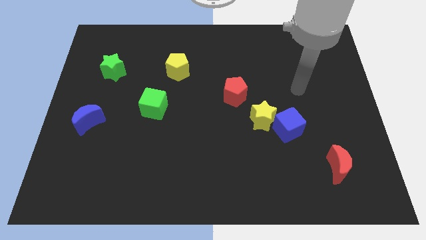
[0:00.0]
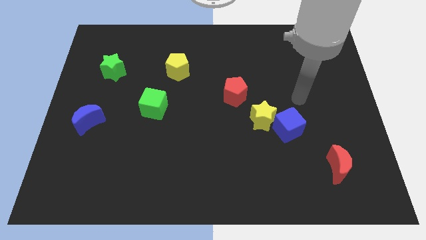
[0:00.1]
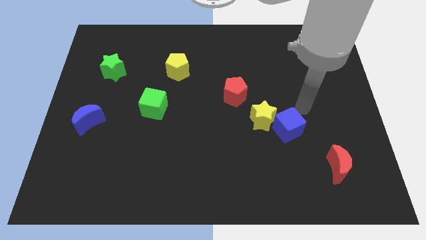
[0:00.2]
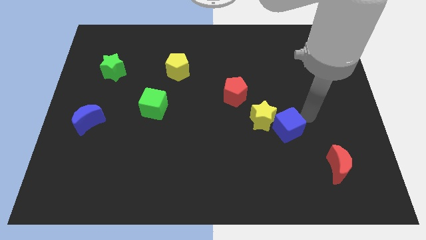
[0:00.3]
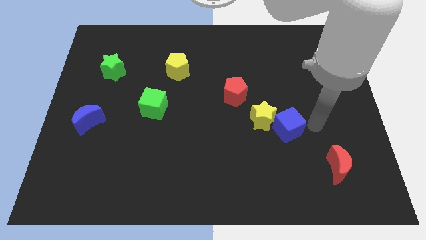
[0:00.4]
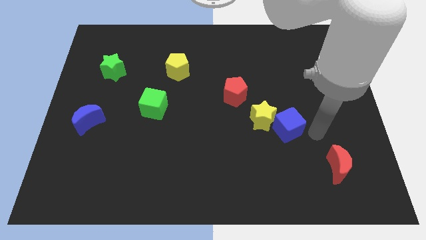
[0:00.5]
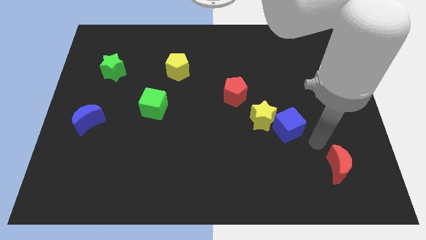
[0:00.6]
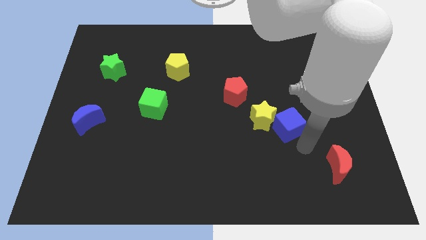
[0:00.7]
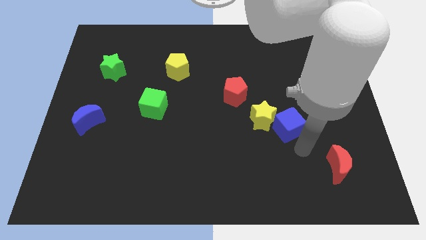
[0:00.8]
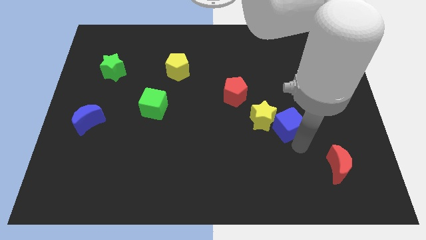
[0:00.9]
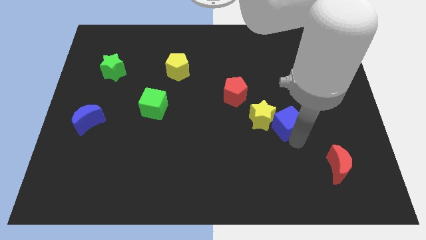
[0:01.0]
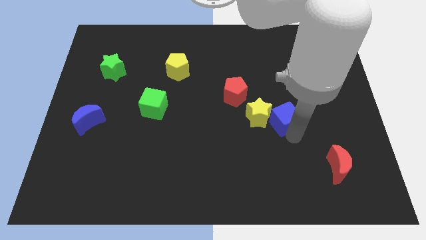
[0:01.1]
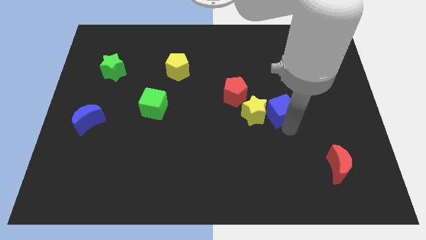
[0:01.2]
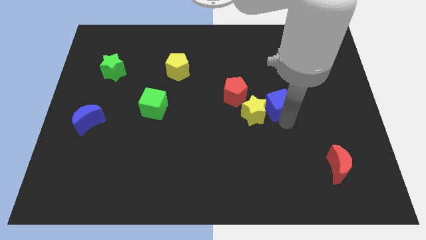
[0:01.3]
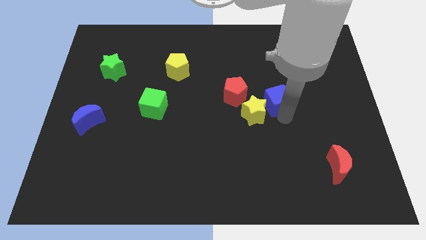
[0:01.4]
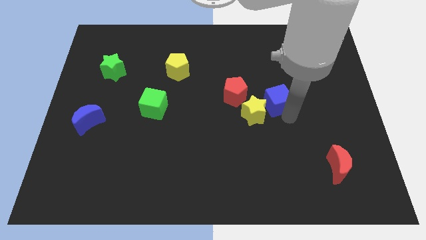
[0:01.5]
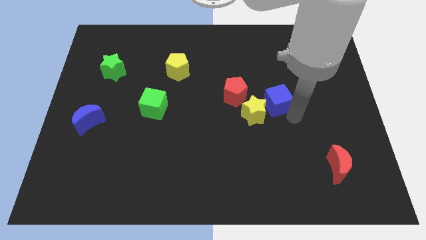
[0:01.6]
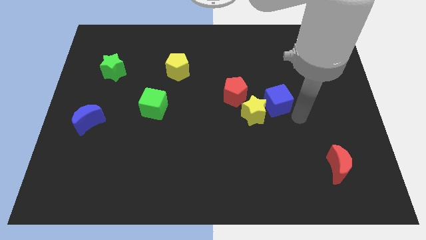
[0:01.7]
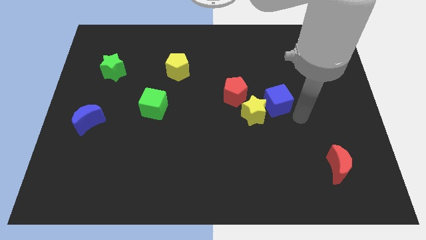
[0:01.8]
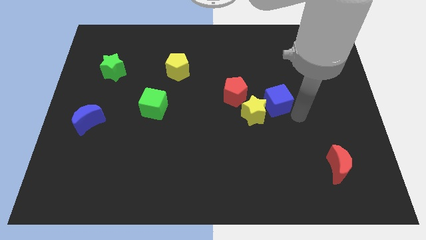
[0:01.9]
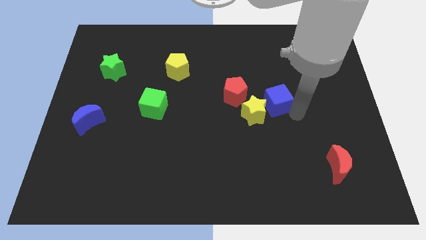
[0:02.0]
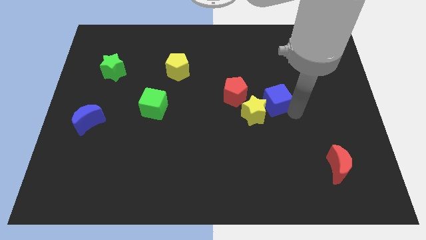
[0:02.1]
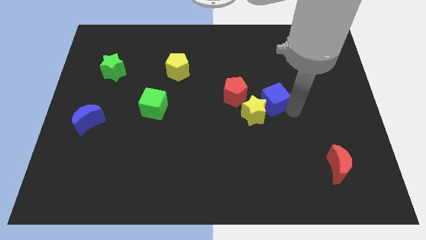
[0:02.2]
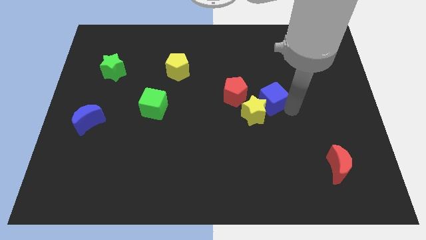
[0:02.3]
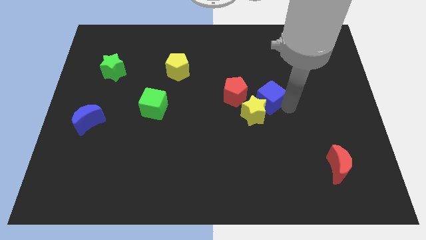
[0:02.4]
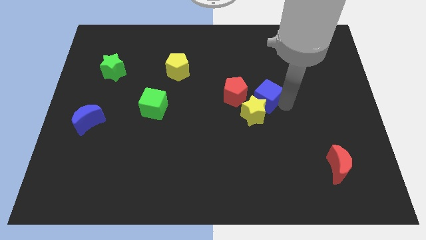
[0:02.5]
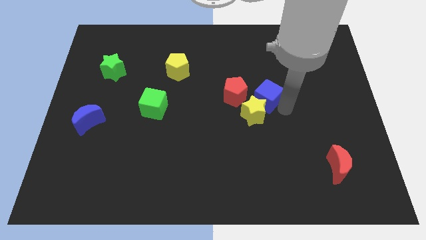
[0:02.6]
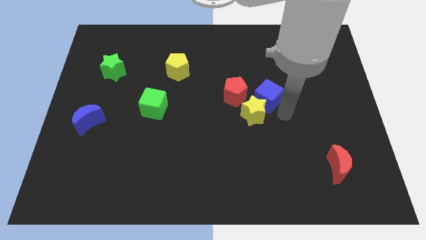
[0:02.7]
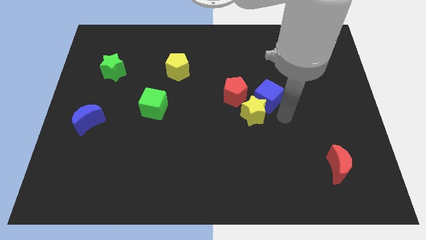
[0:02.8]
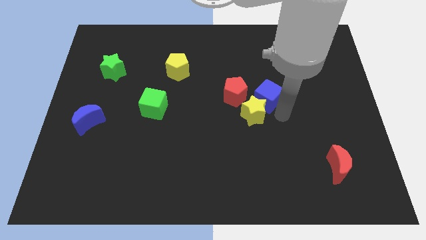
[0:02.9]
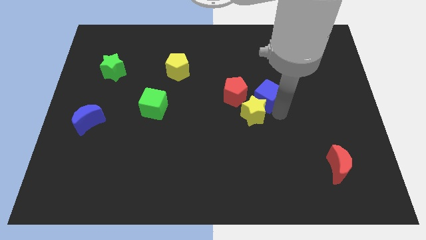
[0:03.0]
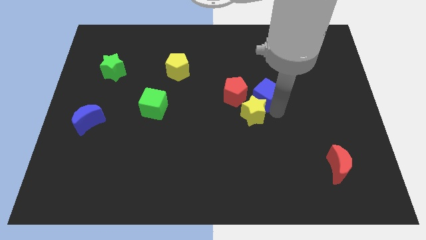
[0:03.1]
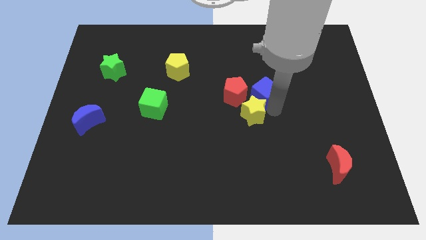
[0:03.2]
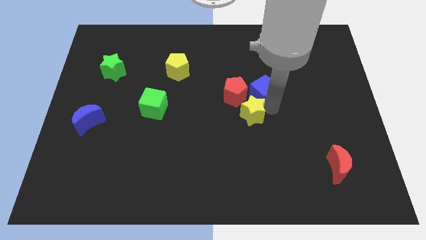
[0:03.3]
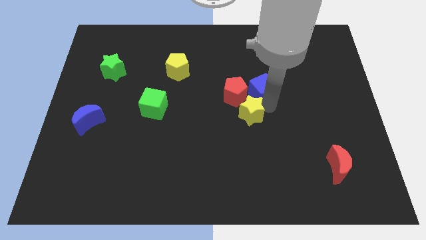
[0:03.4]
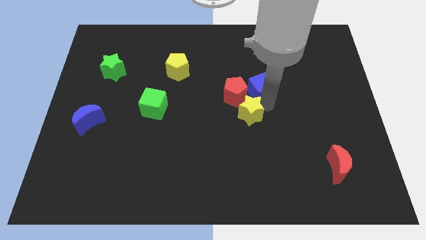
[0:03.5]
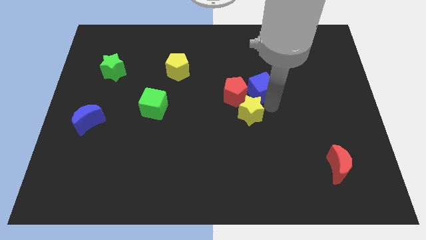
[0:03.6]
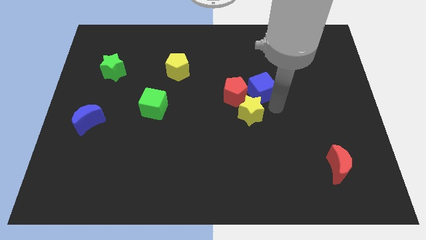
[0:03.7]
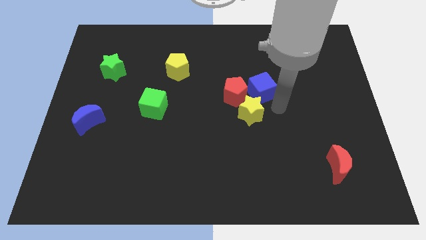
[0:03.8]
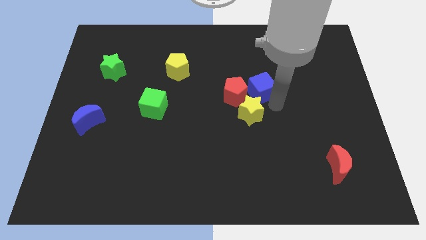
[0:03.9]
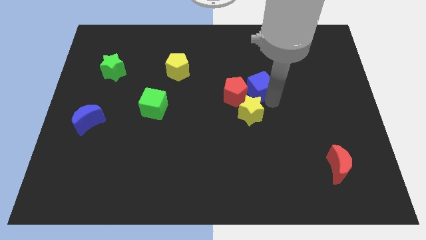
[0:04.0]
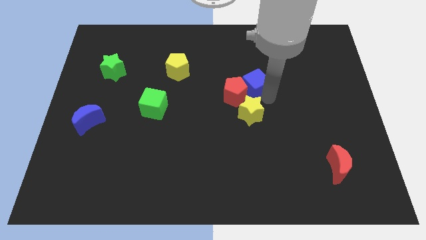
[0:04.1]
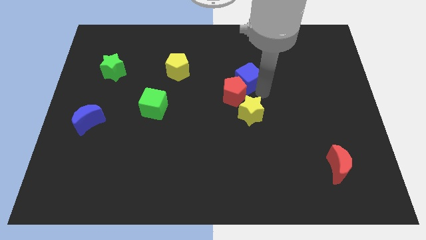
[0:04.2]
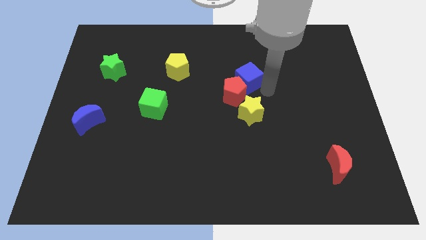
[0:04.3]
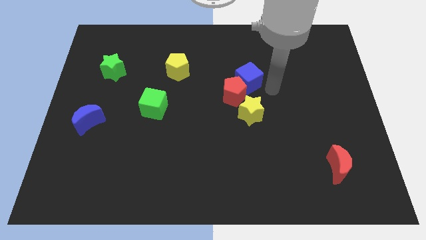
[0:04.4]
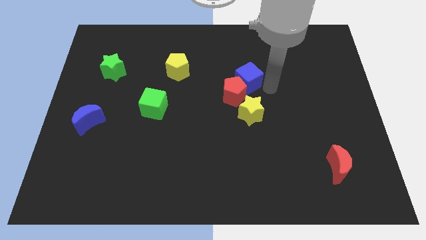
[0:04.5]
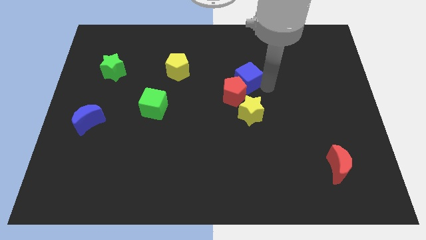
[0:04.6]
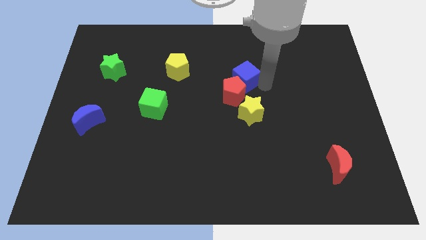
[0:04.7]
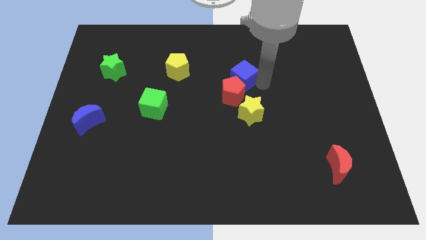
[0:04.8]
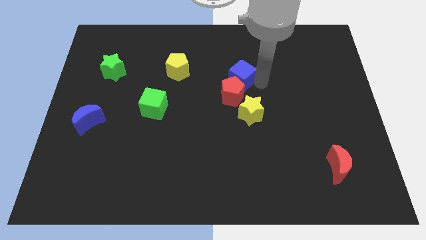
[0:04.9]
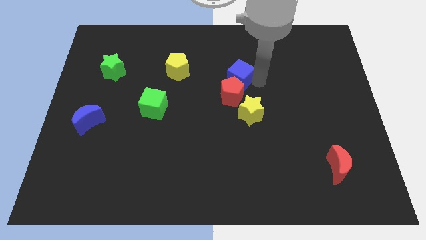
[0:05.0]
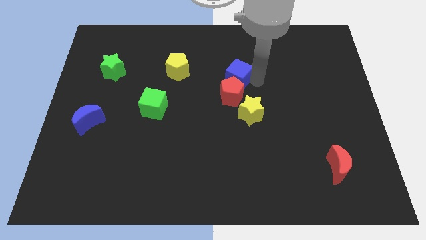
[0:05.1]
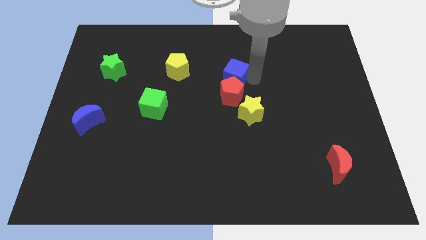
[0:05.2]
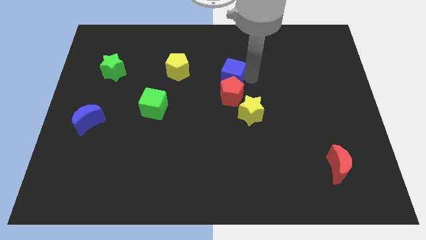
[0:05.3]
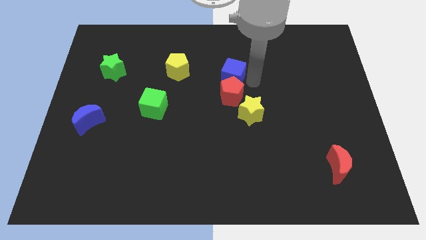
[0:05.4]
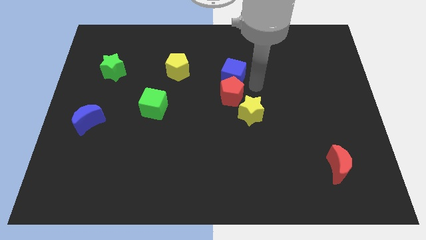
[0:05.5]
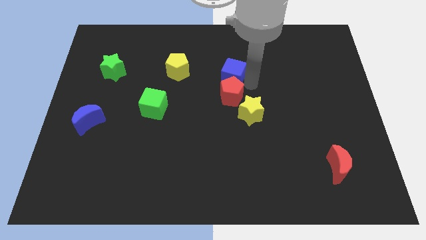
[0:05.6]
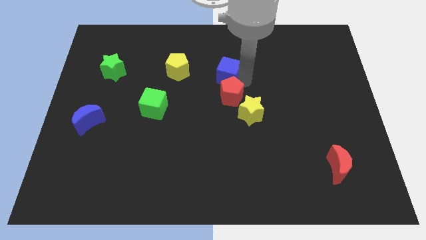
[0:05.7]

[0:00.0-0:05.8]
push the blue cube upwards and to the left

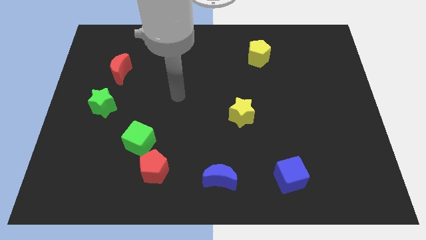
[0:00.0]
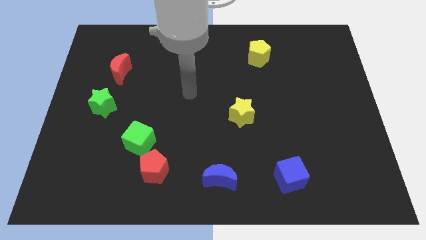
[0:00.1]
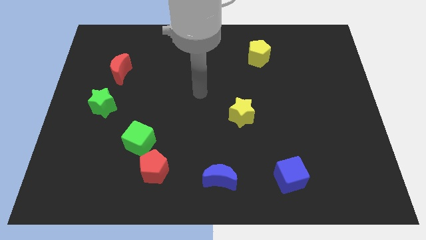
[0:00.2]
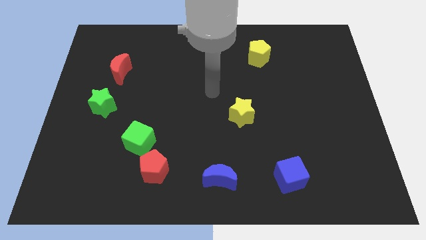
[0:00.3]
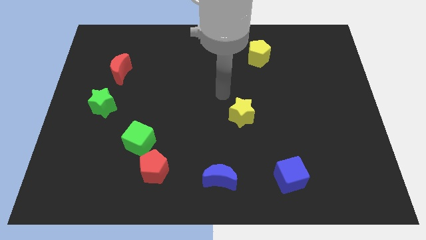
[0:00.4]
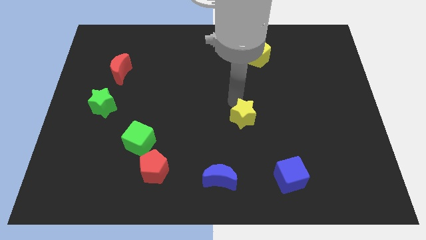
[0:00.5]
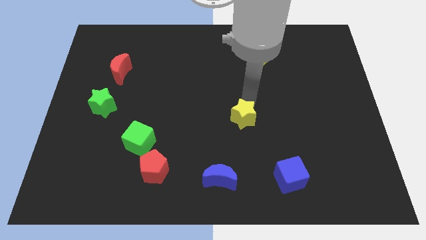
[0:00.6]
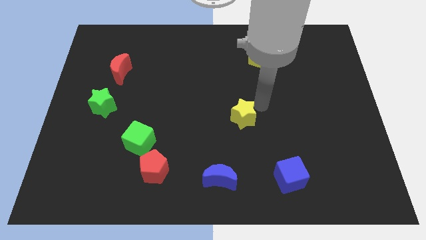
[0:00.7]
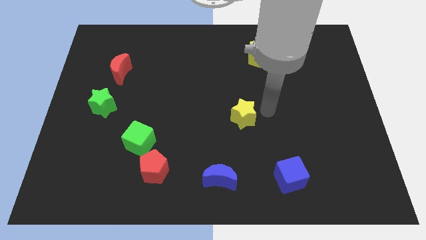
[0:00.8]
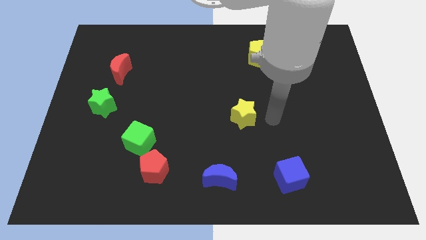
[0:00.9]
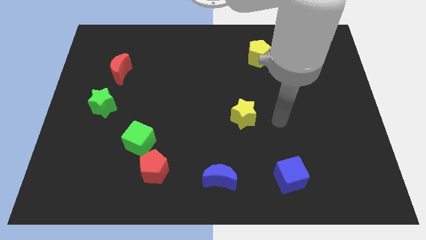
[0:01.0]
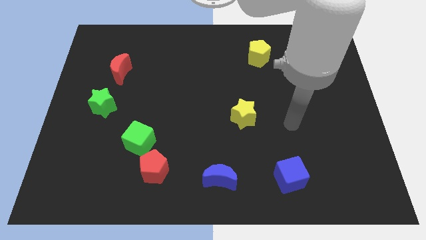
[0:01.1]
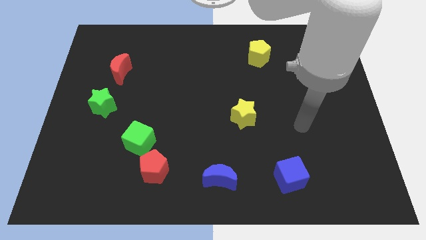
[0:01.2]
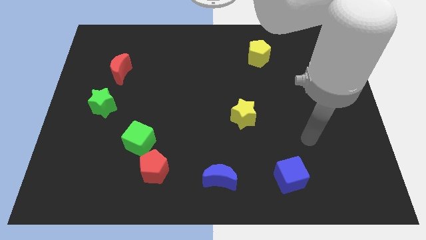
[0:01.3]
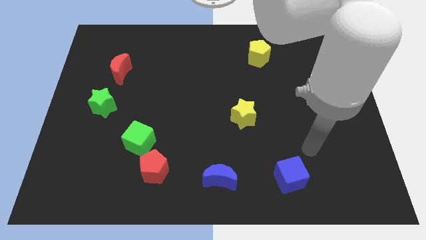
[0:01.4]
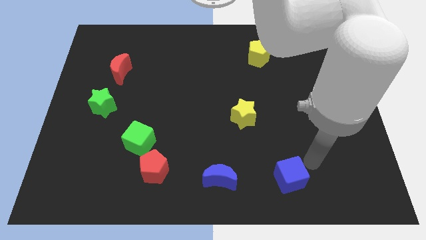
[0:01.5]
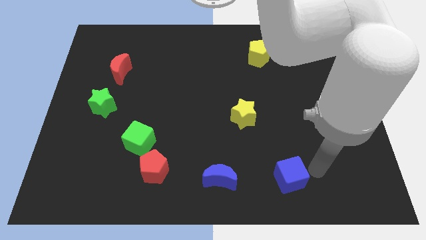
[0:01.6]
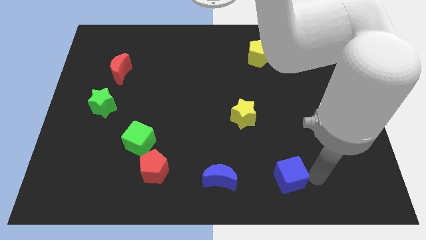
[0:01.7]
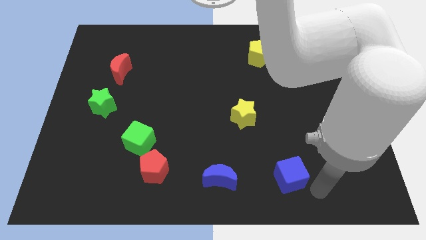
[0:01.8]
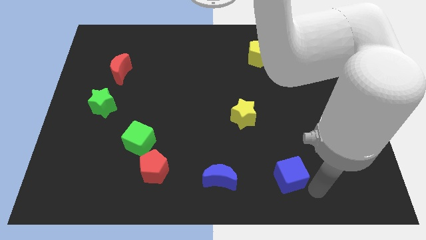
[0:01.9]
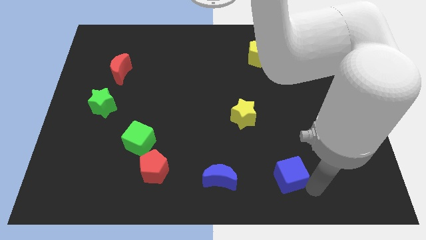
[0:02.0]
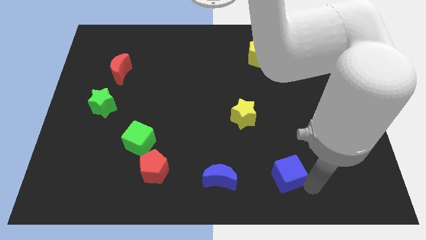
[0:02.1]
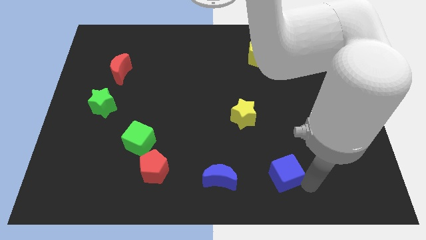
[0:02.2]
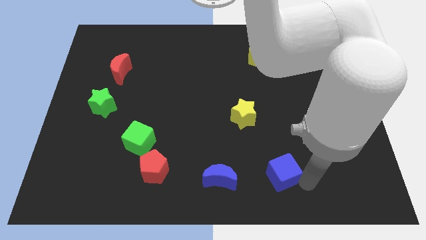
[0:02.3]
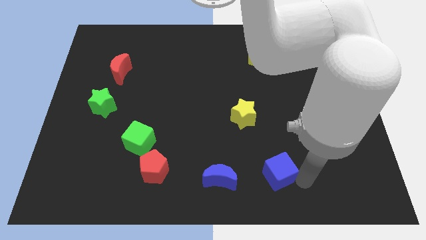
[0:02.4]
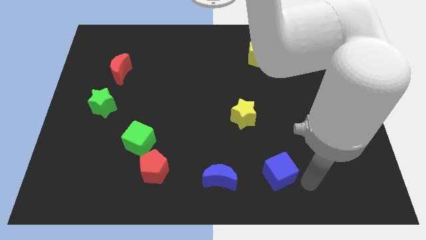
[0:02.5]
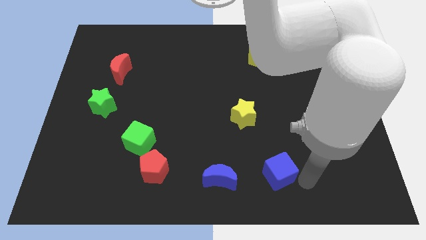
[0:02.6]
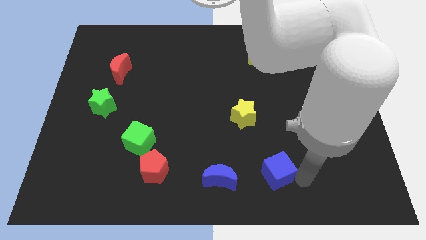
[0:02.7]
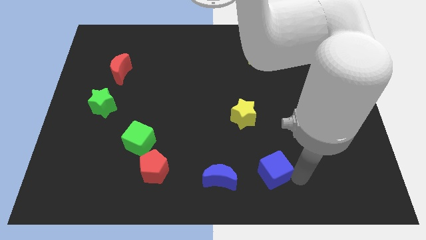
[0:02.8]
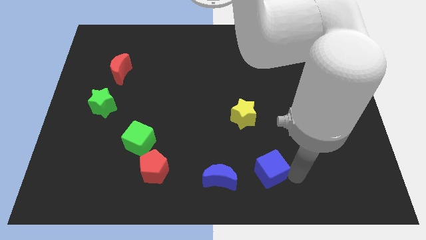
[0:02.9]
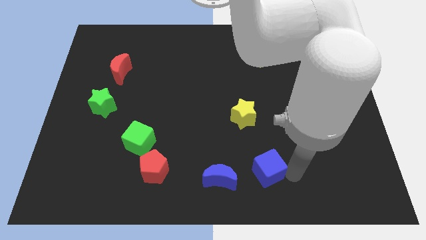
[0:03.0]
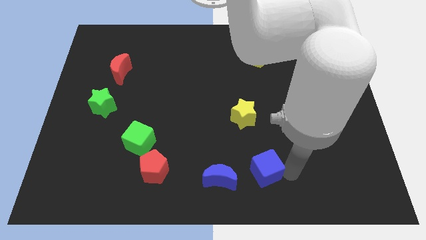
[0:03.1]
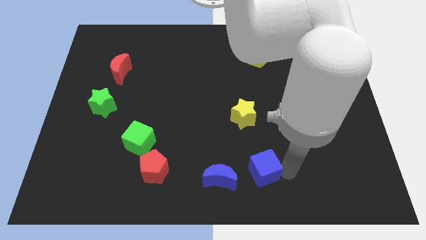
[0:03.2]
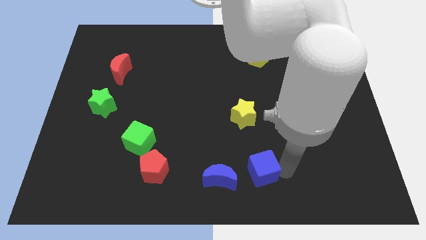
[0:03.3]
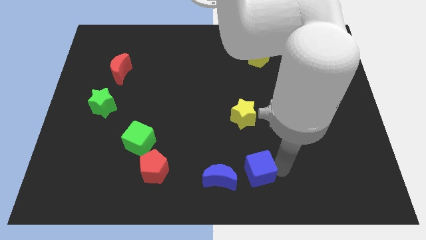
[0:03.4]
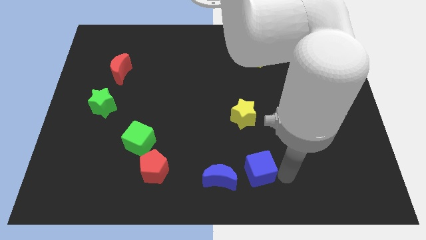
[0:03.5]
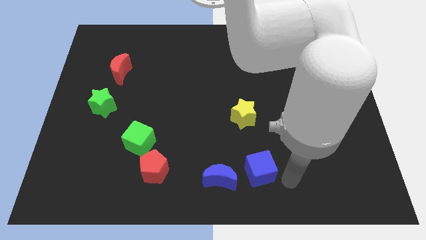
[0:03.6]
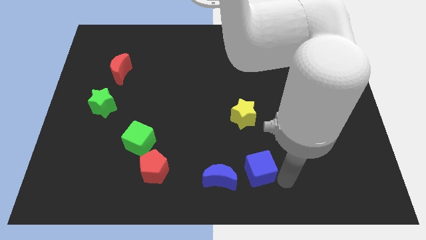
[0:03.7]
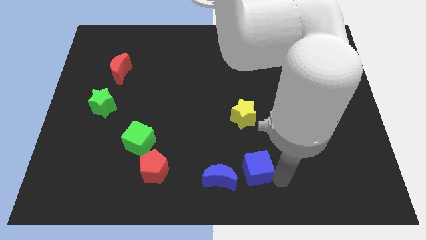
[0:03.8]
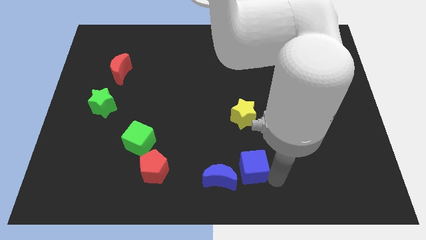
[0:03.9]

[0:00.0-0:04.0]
slightly push the blue cube to the left
